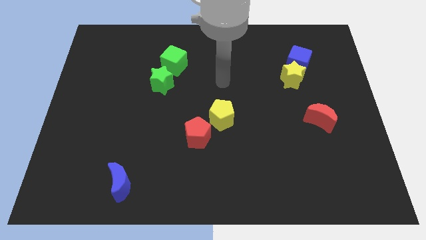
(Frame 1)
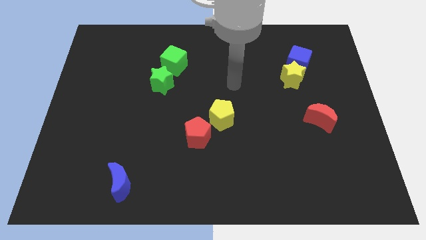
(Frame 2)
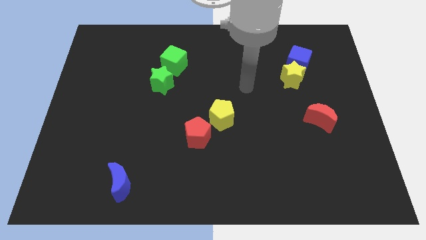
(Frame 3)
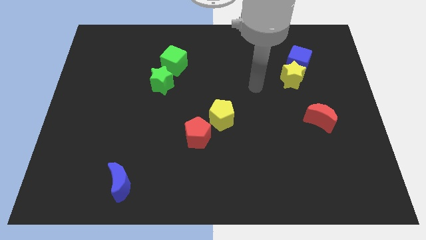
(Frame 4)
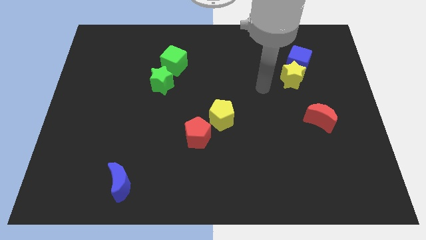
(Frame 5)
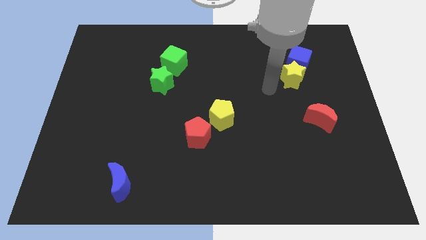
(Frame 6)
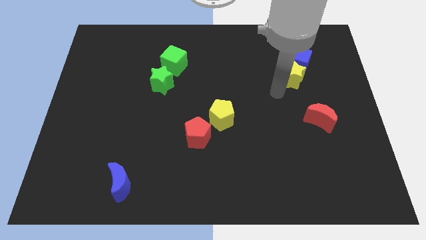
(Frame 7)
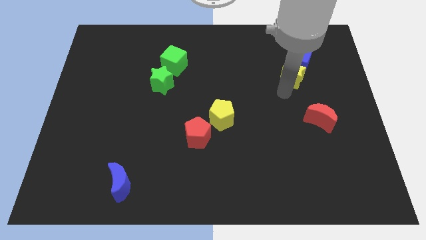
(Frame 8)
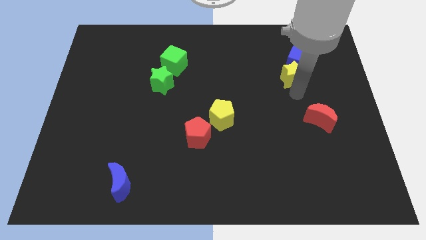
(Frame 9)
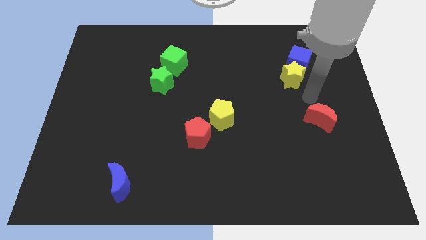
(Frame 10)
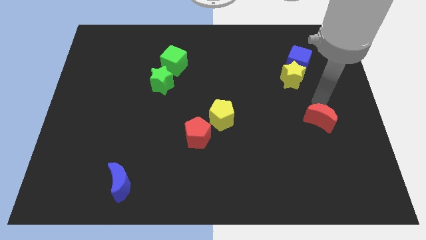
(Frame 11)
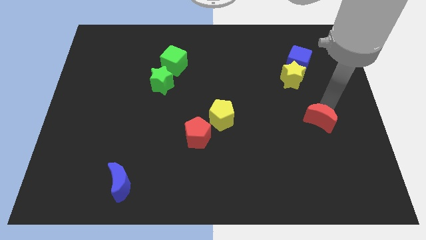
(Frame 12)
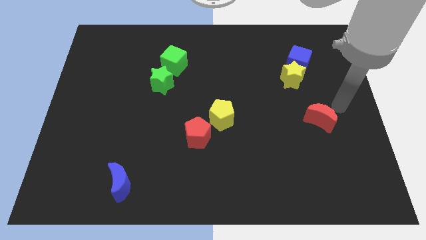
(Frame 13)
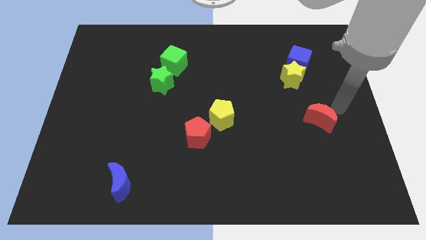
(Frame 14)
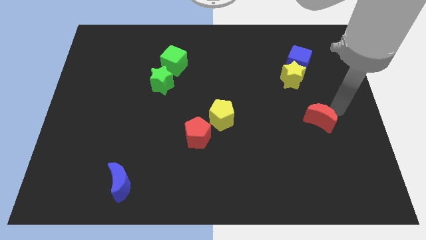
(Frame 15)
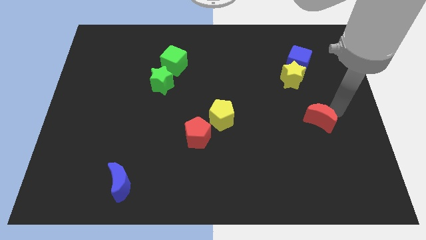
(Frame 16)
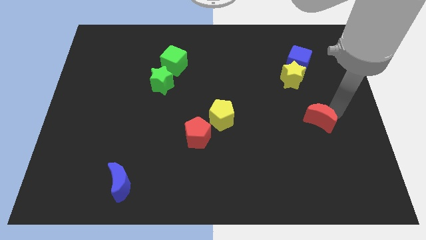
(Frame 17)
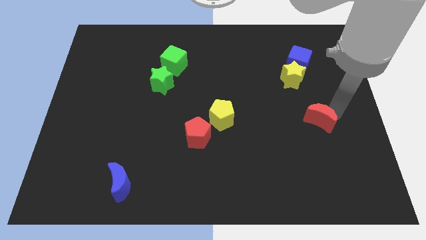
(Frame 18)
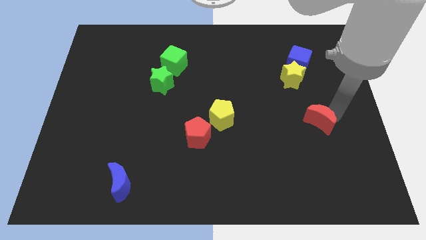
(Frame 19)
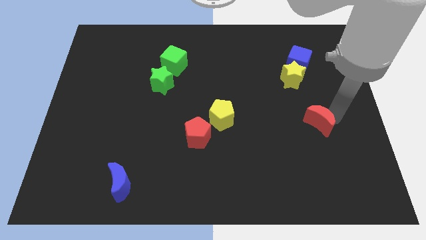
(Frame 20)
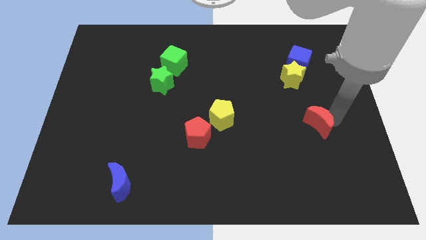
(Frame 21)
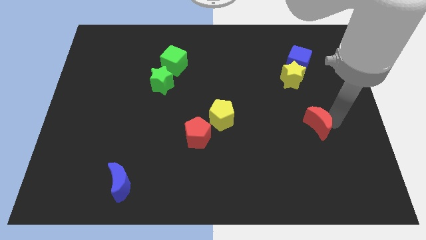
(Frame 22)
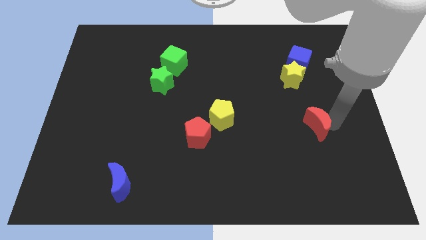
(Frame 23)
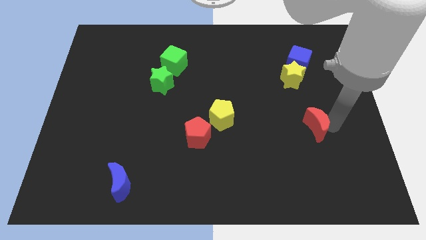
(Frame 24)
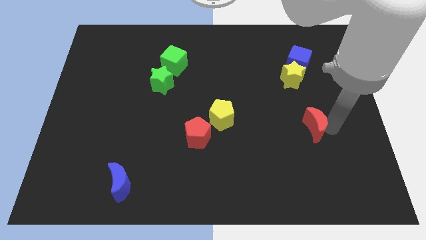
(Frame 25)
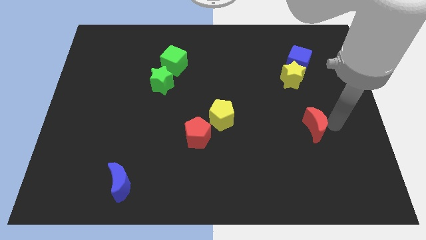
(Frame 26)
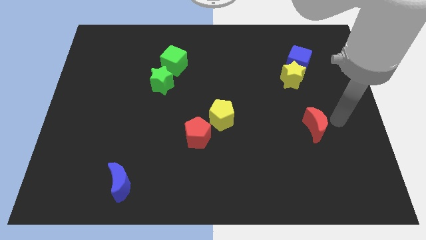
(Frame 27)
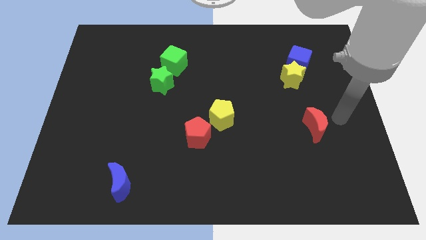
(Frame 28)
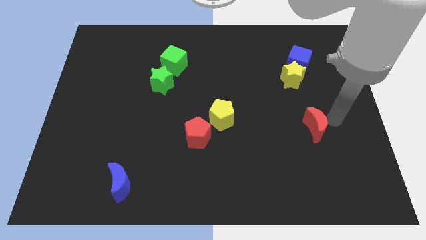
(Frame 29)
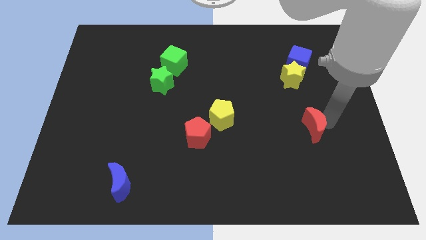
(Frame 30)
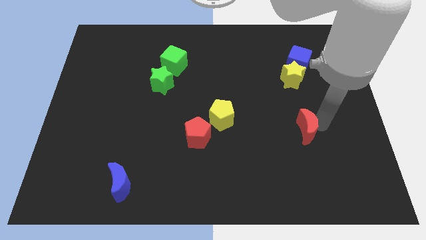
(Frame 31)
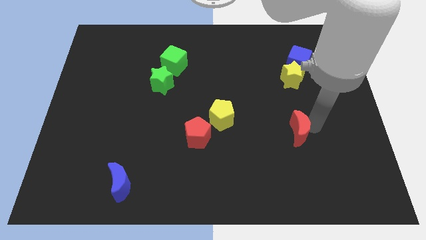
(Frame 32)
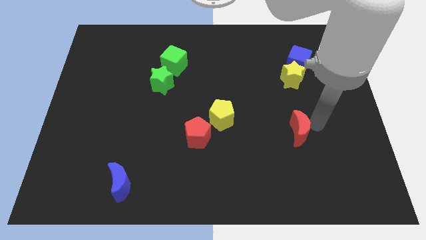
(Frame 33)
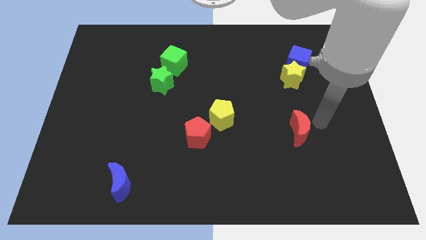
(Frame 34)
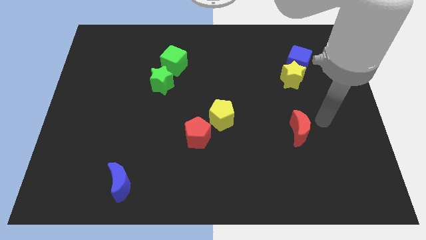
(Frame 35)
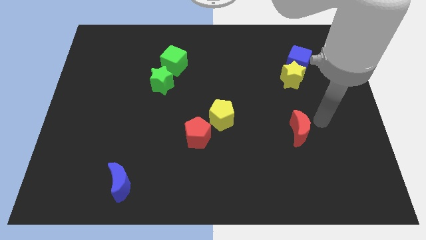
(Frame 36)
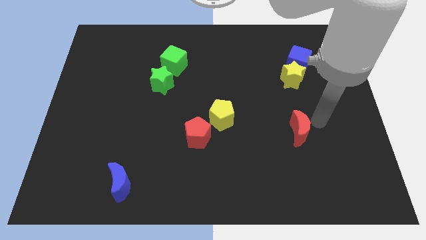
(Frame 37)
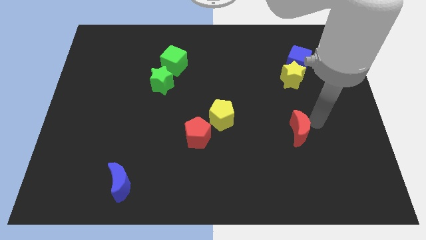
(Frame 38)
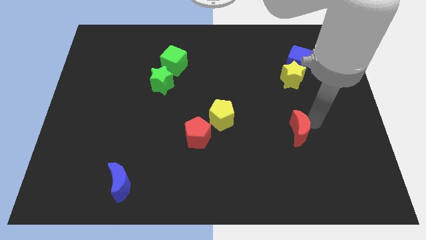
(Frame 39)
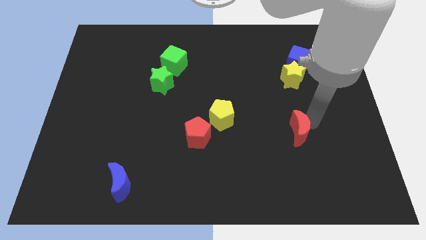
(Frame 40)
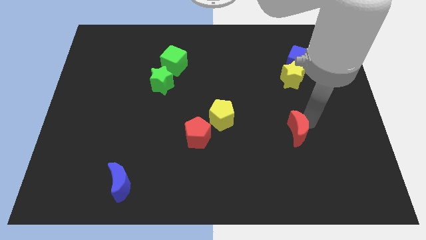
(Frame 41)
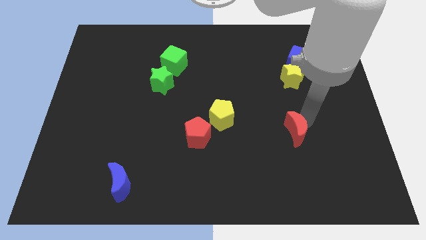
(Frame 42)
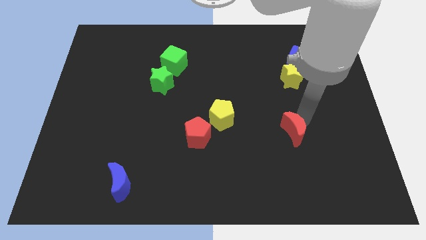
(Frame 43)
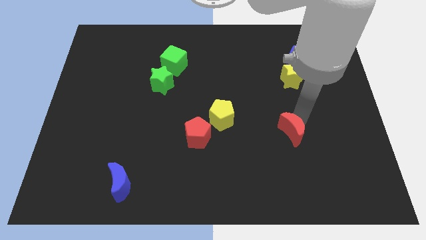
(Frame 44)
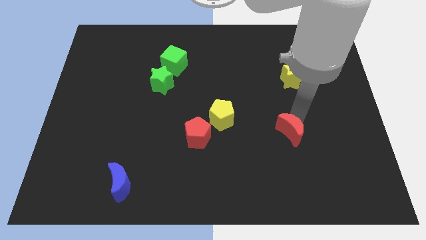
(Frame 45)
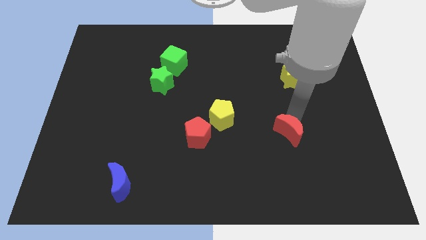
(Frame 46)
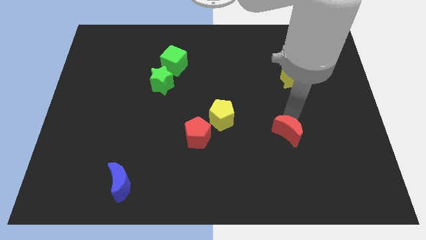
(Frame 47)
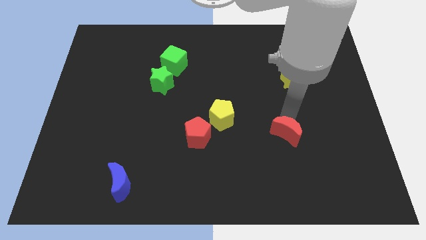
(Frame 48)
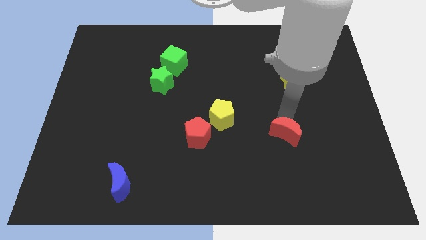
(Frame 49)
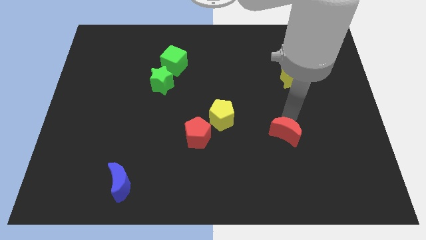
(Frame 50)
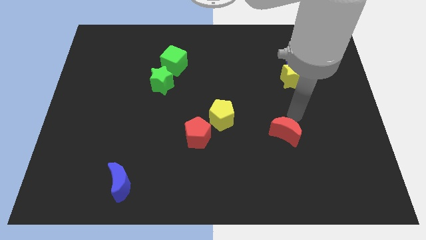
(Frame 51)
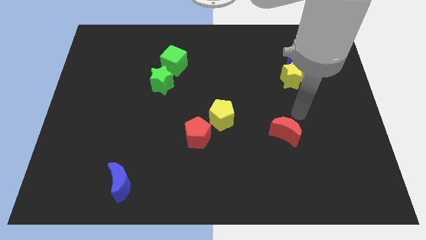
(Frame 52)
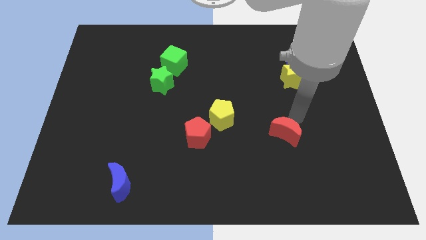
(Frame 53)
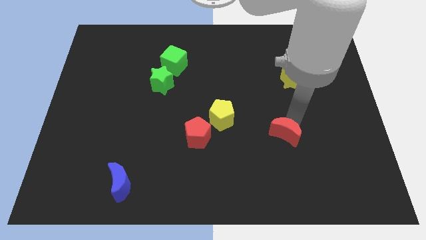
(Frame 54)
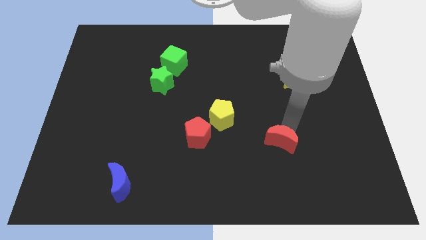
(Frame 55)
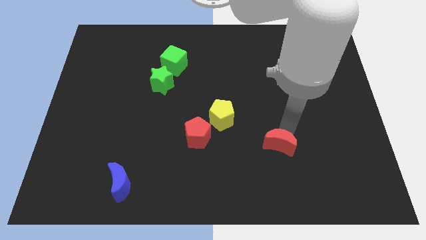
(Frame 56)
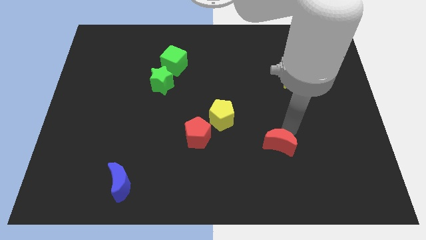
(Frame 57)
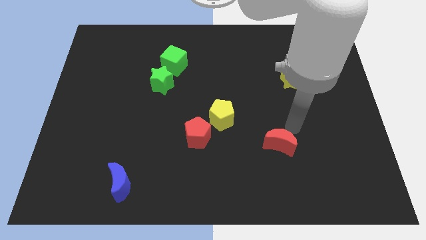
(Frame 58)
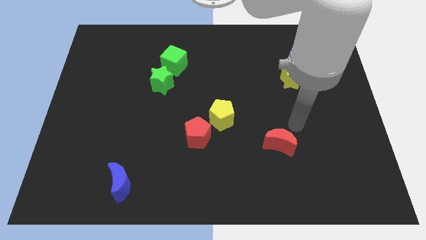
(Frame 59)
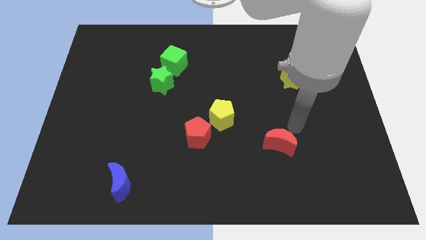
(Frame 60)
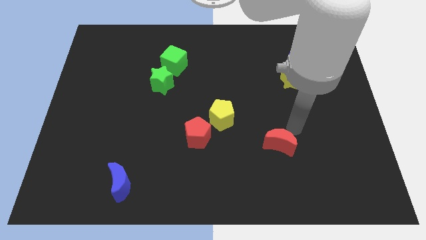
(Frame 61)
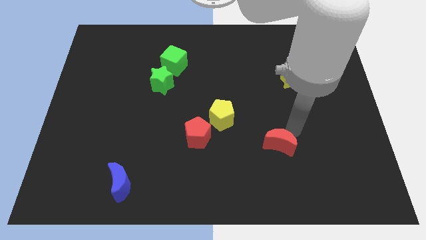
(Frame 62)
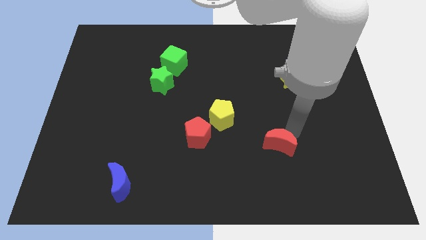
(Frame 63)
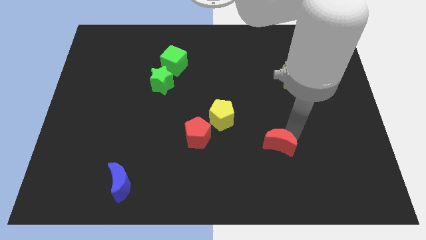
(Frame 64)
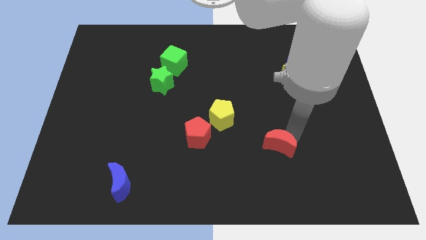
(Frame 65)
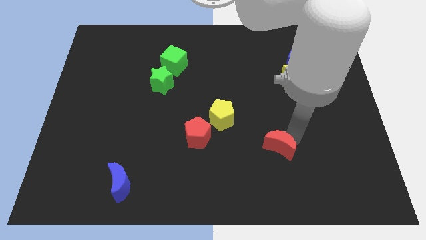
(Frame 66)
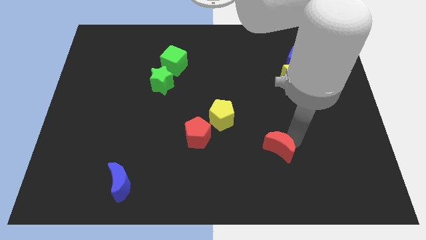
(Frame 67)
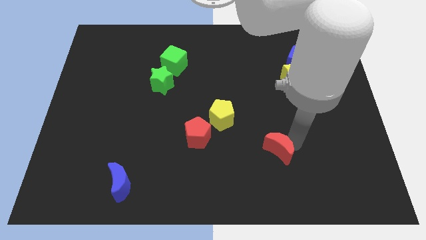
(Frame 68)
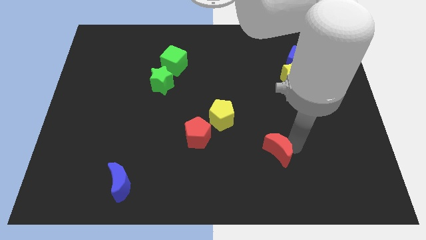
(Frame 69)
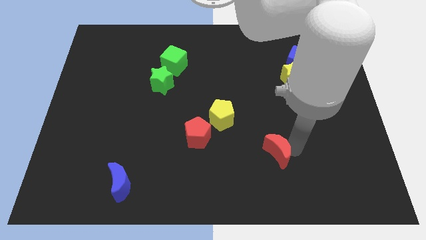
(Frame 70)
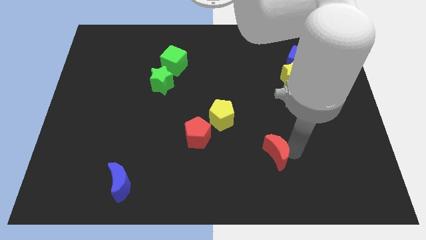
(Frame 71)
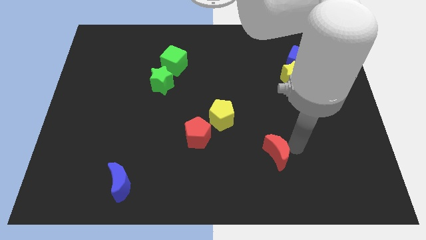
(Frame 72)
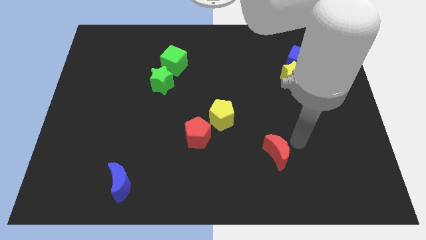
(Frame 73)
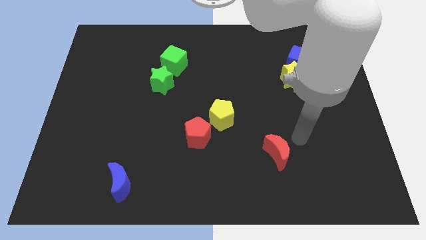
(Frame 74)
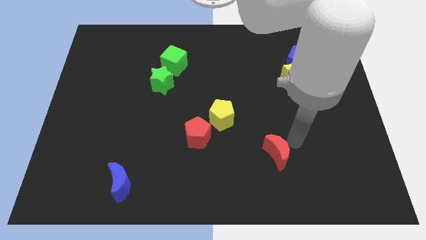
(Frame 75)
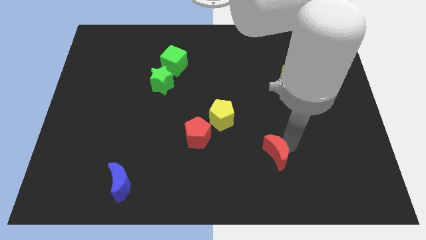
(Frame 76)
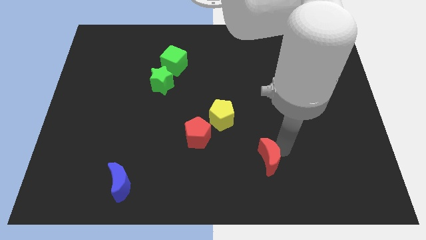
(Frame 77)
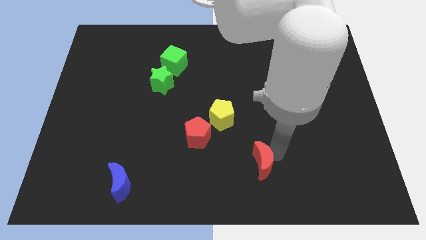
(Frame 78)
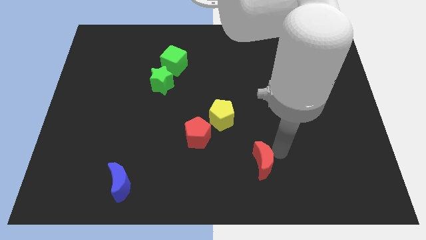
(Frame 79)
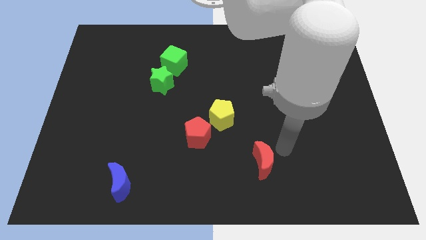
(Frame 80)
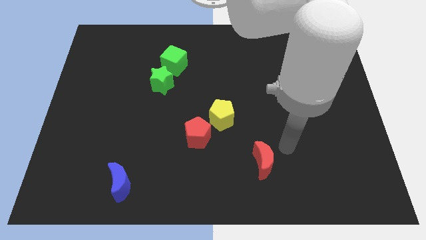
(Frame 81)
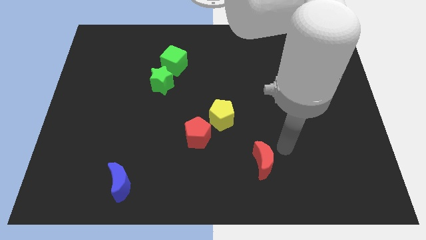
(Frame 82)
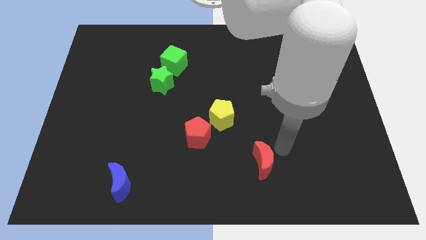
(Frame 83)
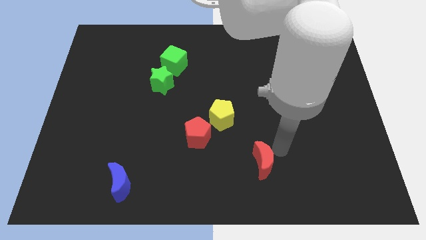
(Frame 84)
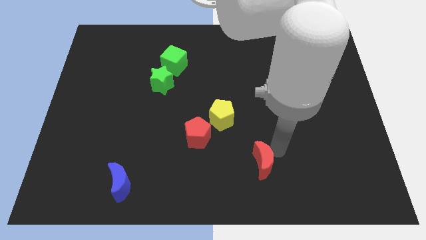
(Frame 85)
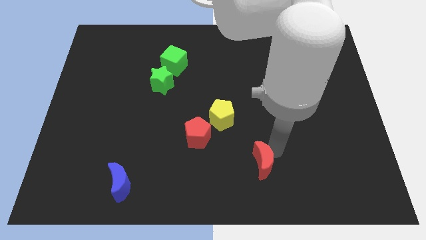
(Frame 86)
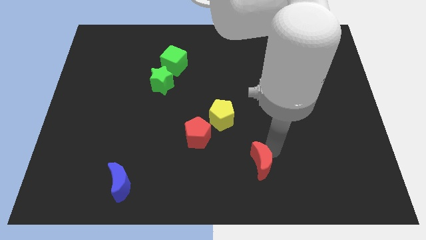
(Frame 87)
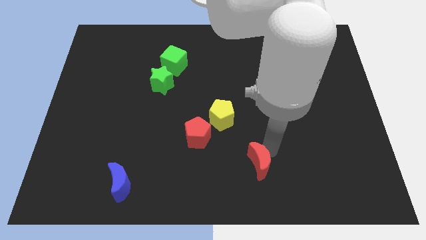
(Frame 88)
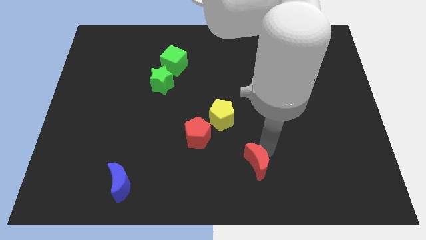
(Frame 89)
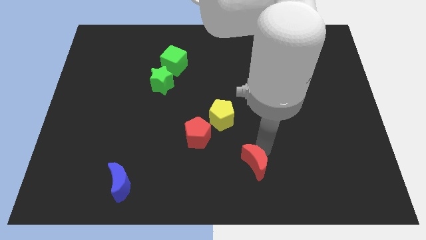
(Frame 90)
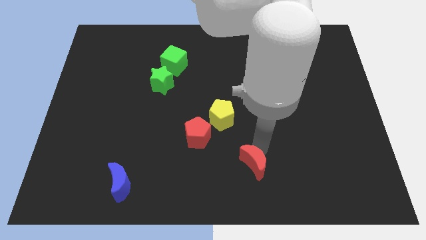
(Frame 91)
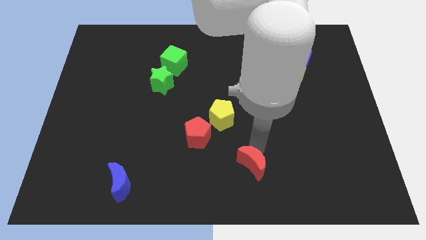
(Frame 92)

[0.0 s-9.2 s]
move the red moon to the bottom
